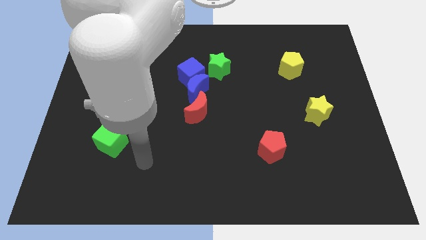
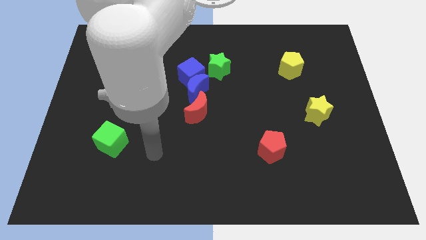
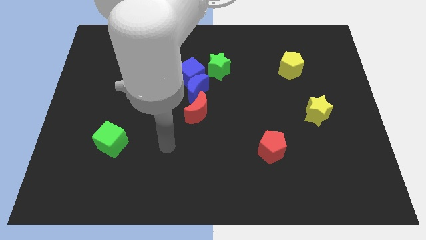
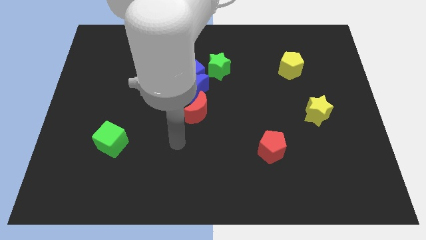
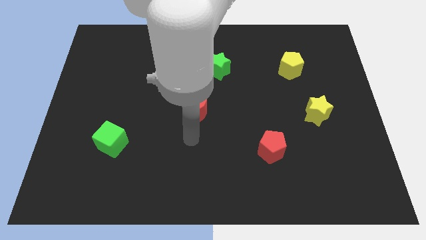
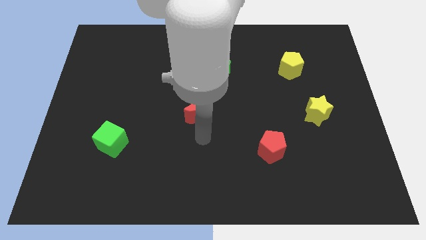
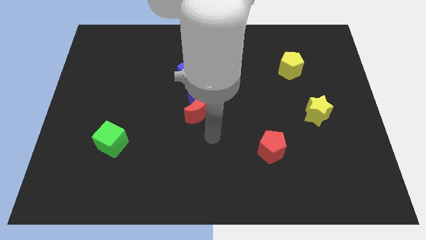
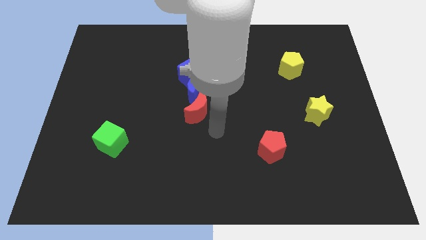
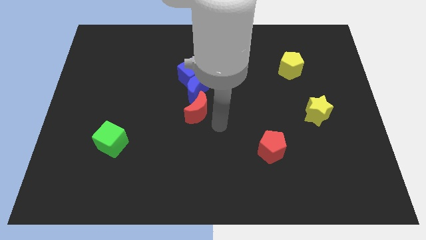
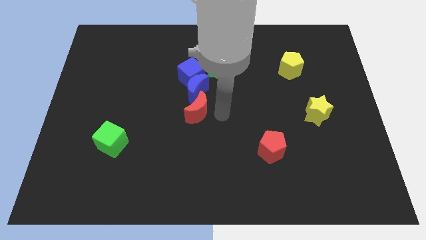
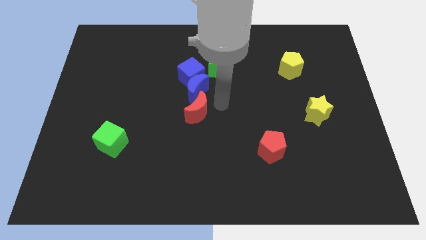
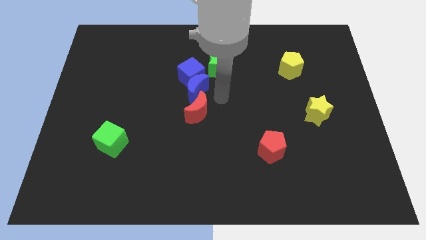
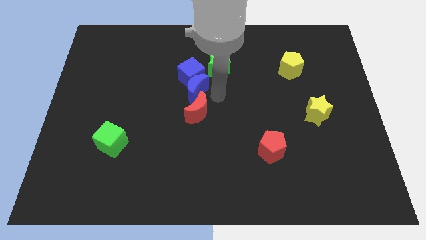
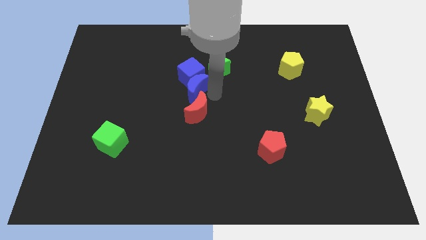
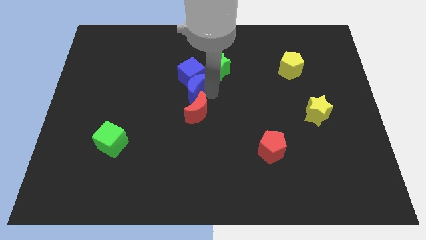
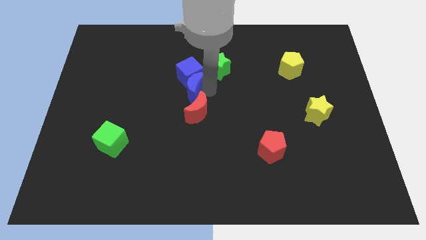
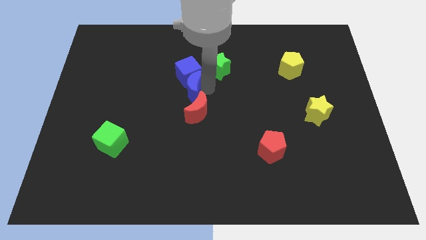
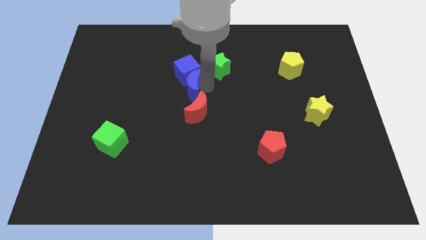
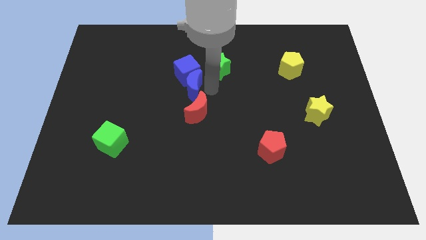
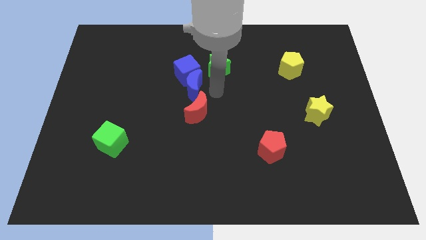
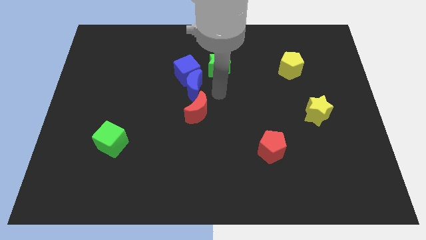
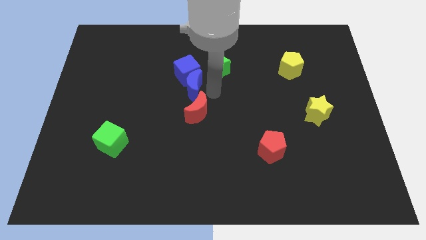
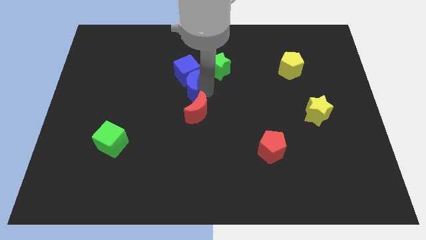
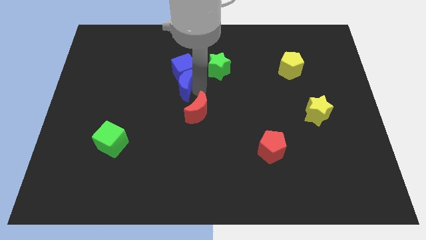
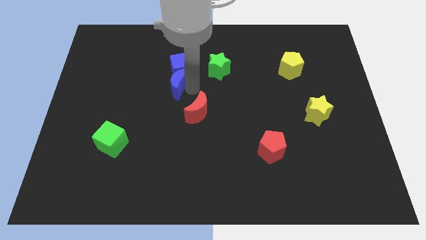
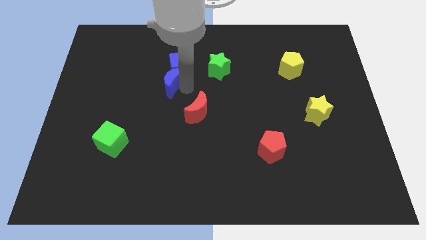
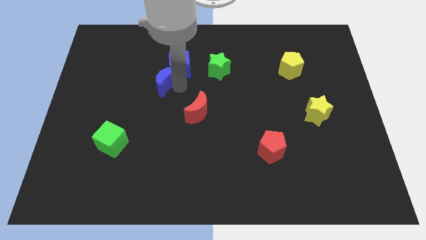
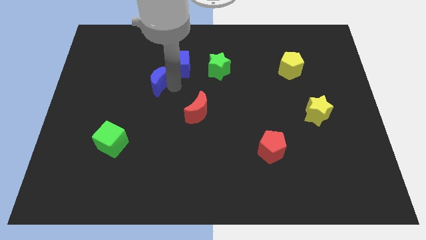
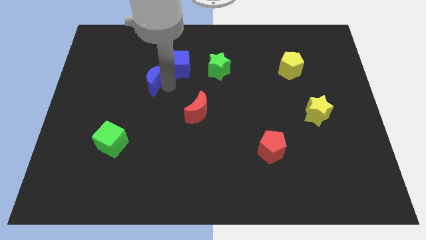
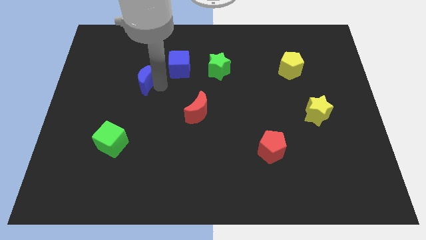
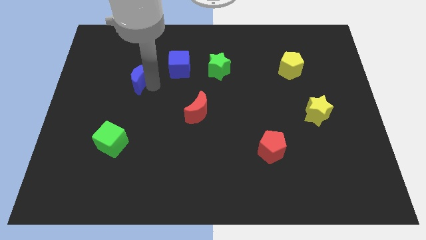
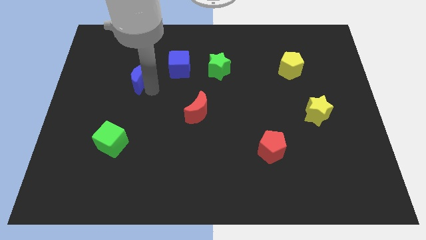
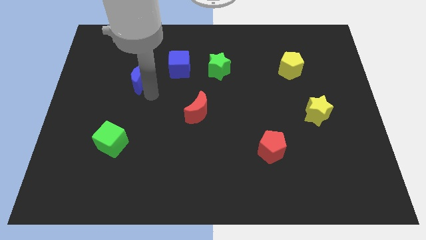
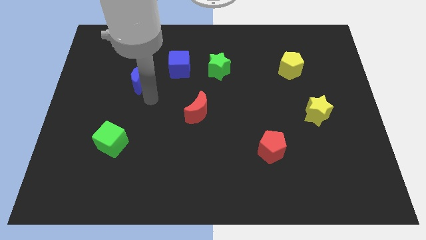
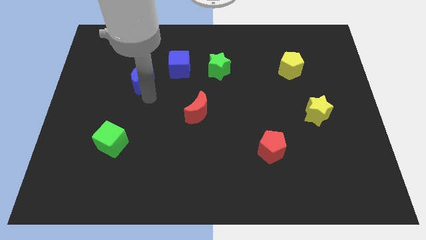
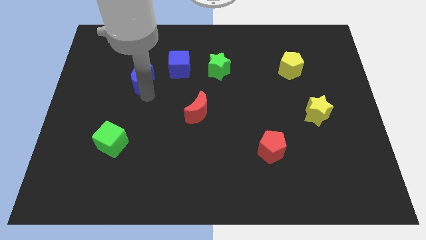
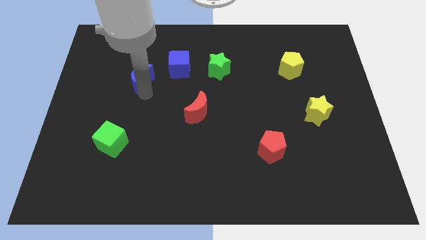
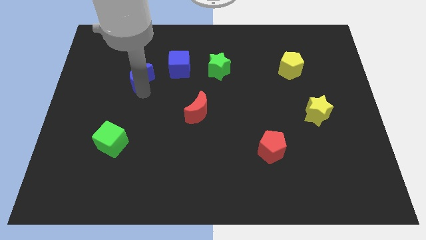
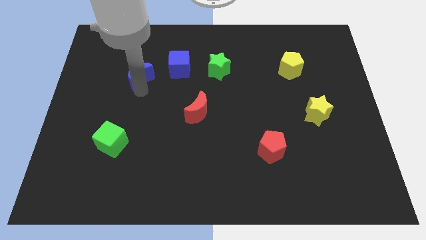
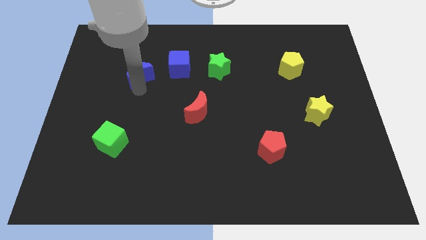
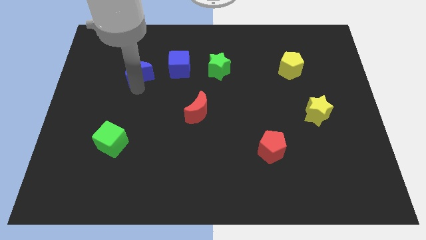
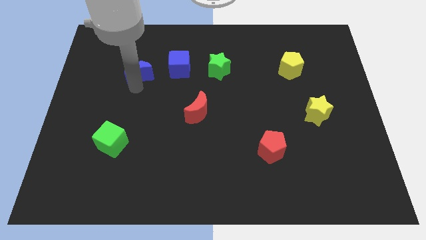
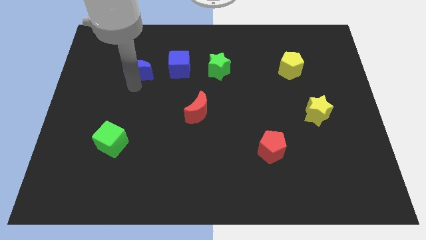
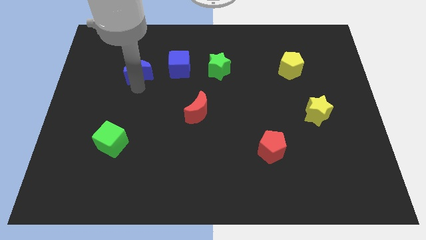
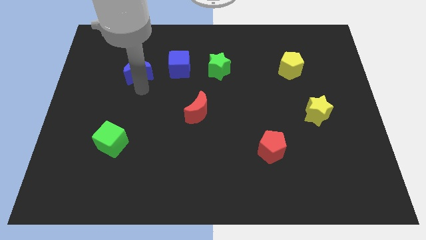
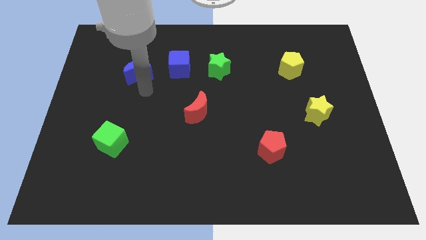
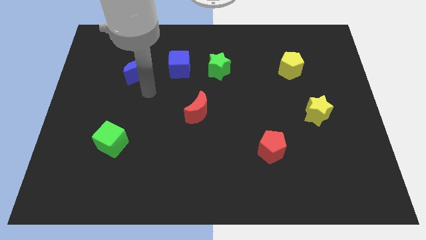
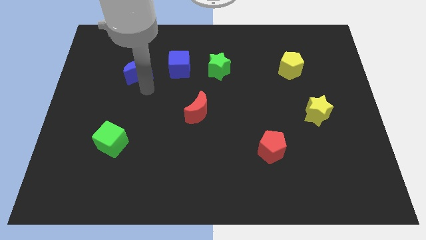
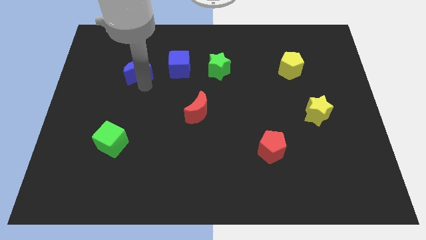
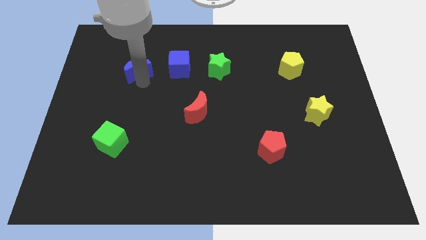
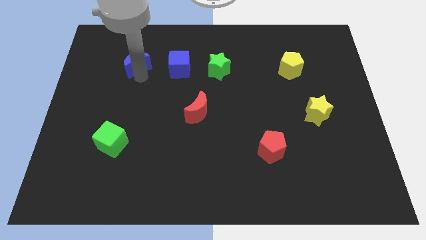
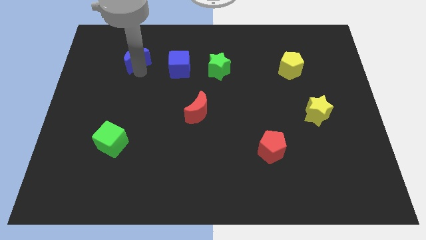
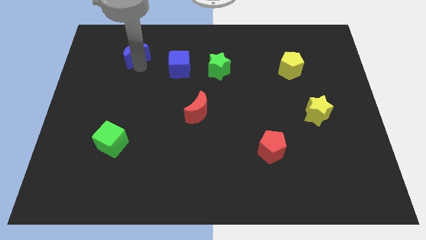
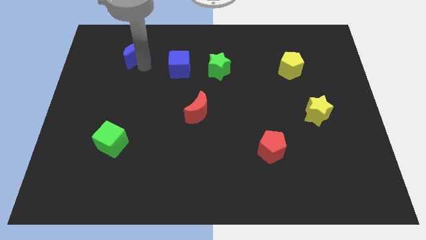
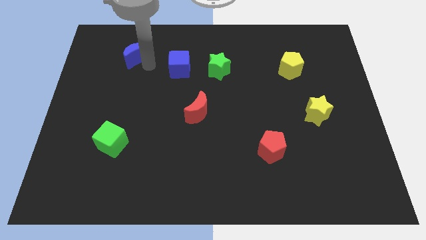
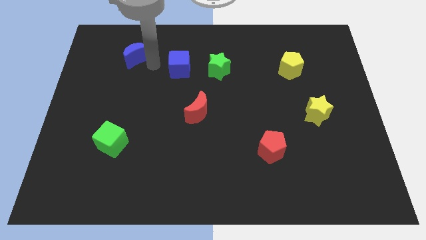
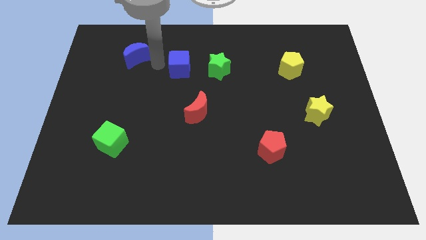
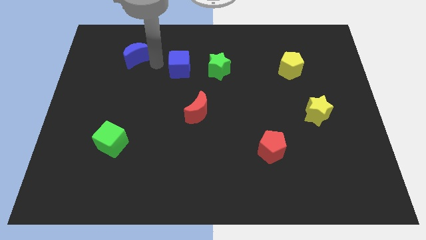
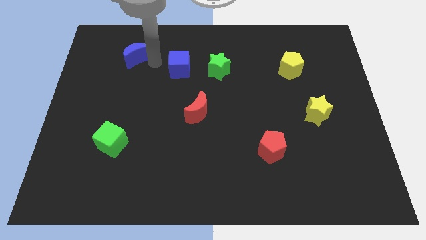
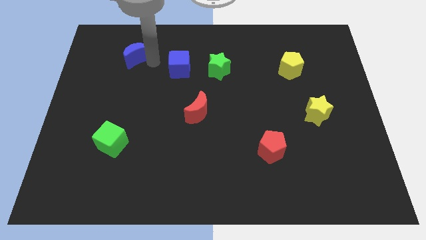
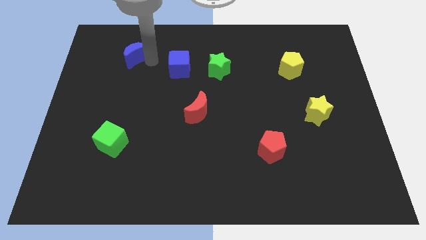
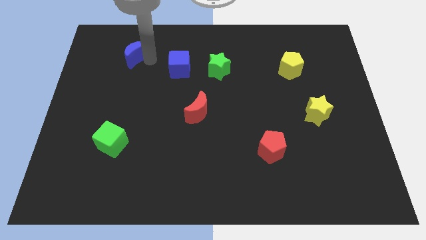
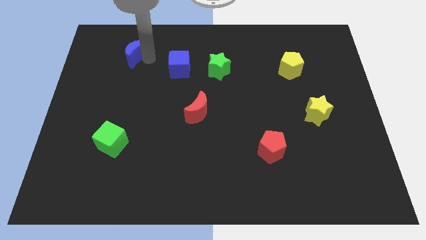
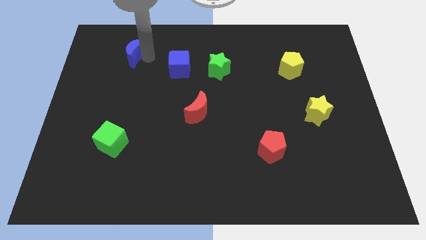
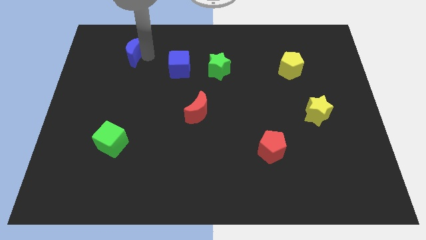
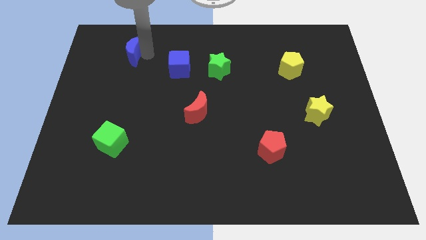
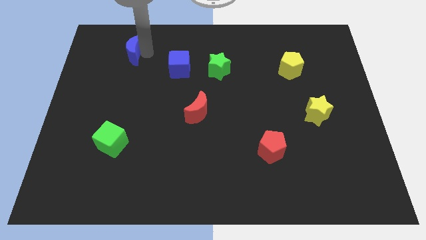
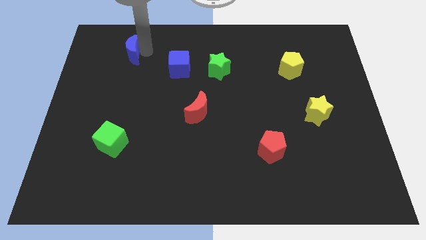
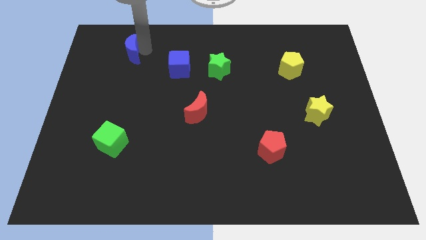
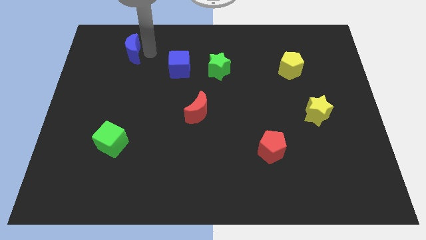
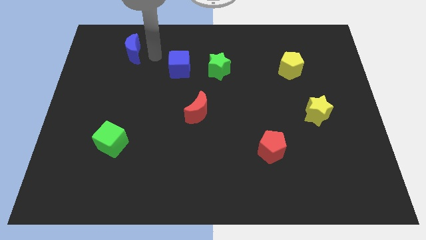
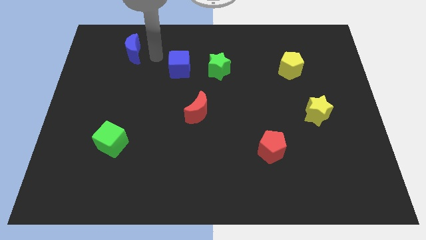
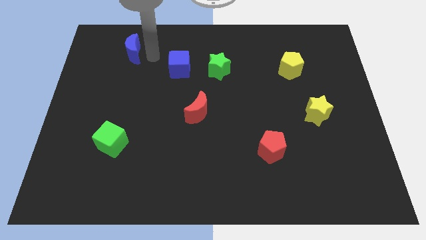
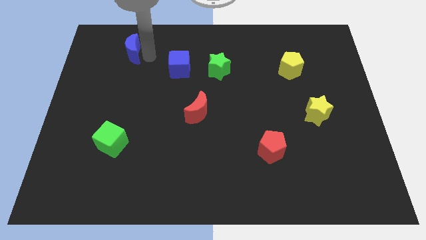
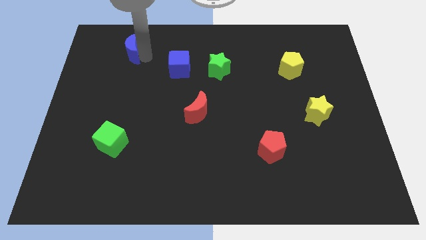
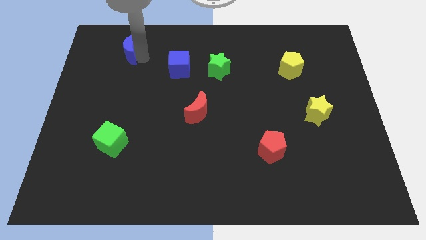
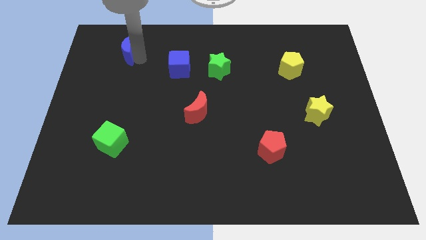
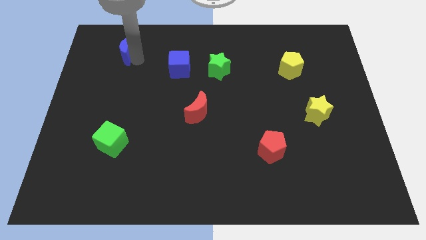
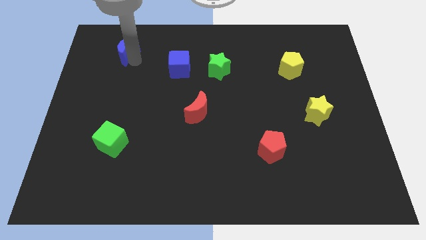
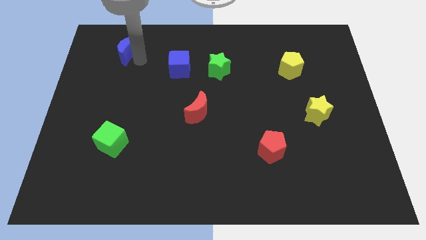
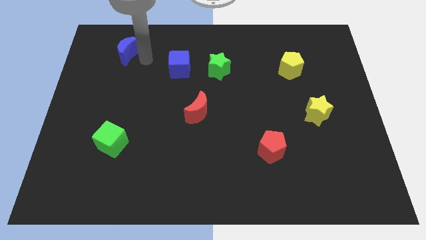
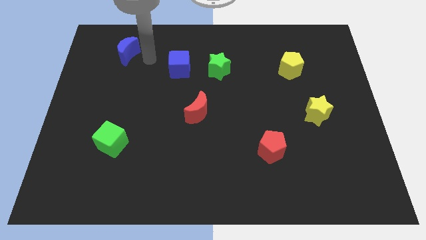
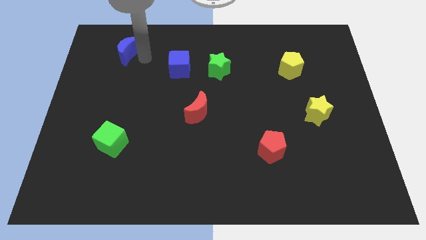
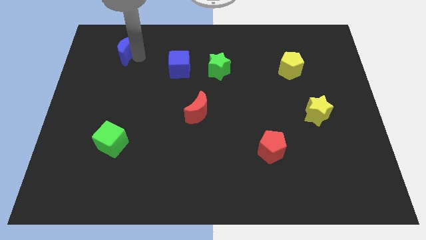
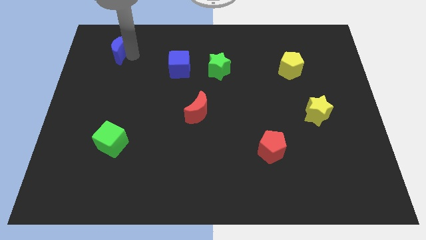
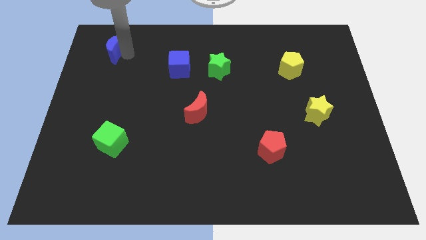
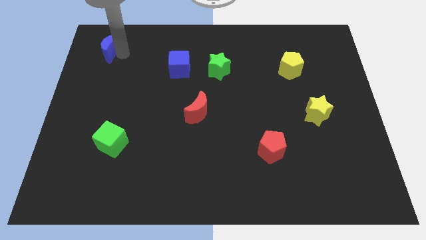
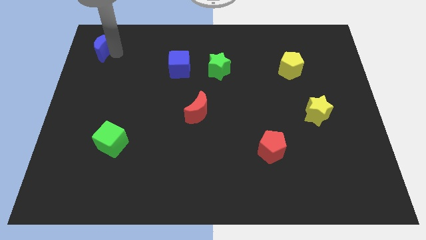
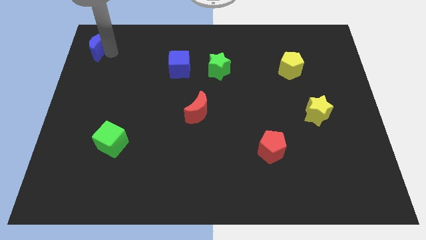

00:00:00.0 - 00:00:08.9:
put the blue moon to the top left of the board
